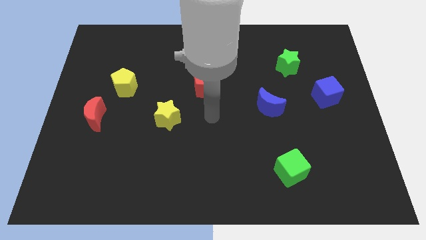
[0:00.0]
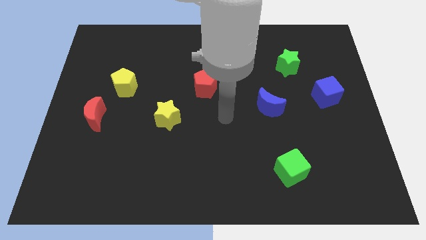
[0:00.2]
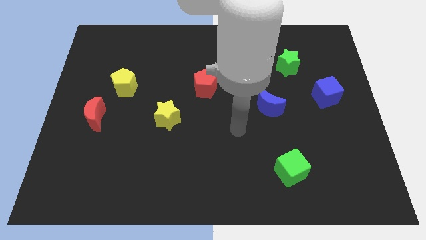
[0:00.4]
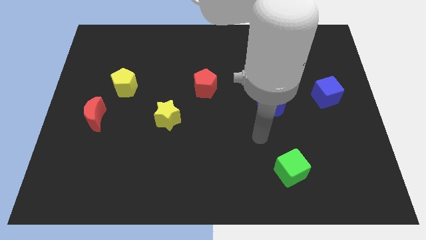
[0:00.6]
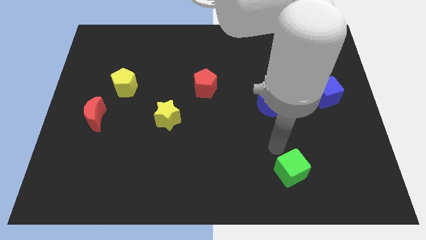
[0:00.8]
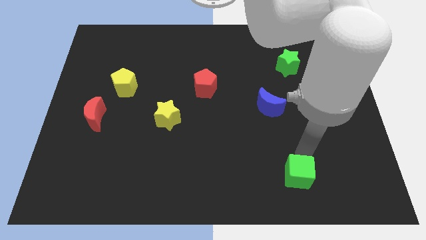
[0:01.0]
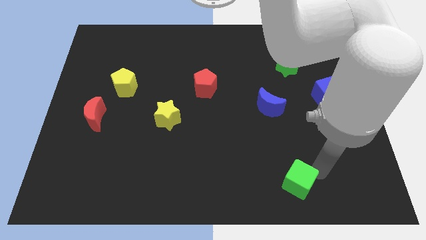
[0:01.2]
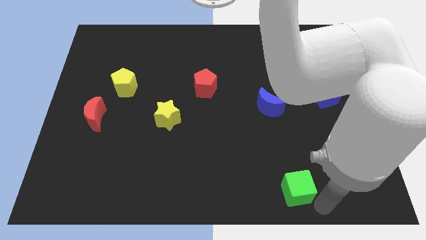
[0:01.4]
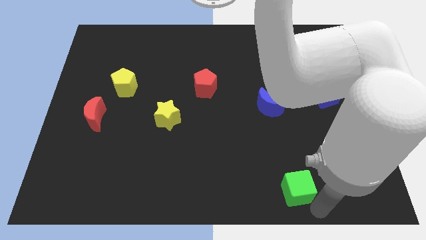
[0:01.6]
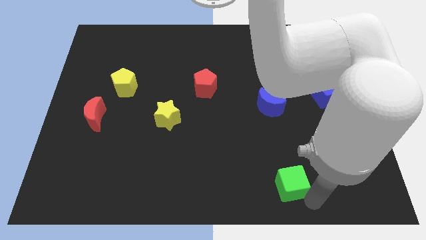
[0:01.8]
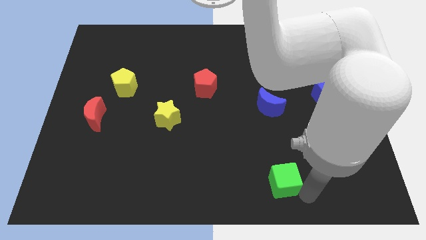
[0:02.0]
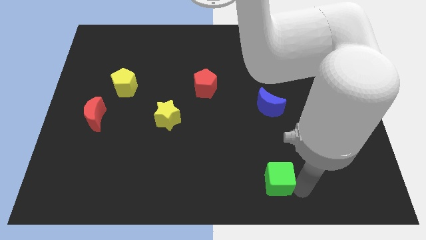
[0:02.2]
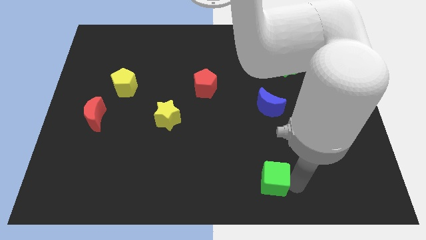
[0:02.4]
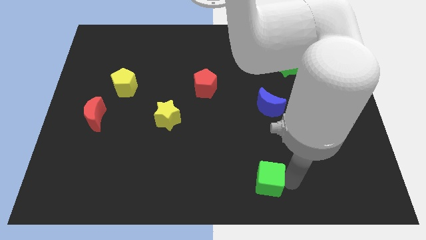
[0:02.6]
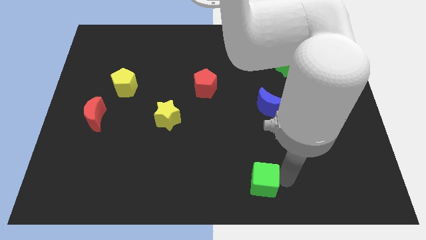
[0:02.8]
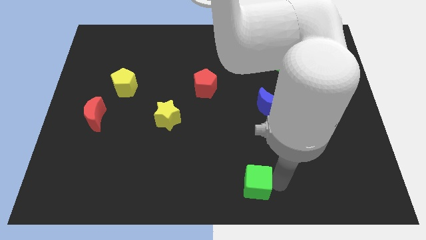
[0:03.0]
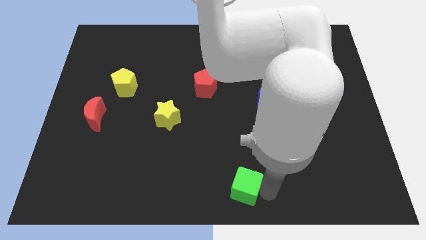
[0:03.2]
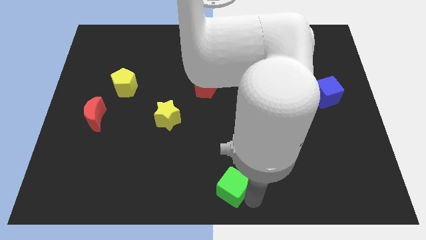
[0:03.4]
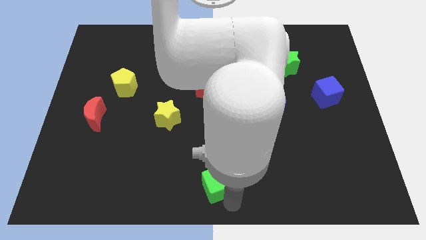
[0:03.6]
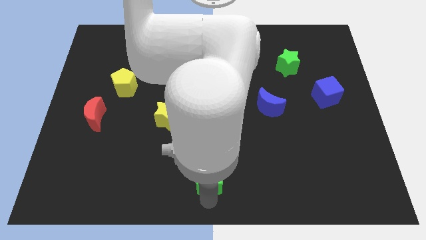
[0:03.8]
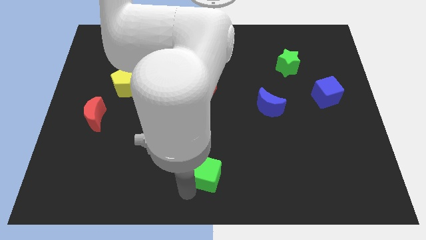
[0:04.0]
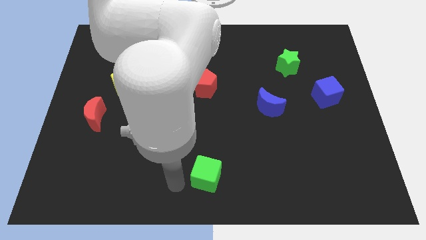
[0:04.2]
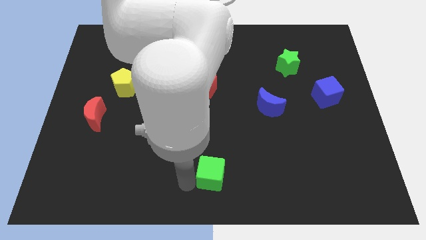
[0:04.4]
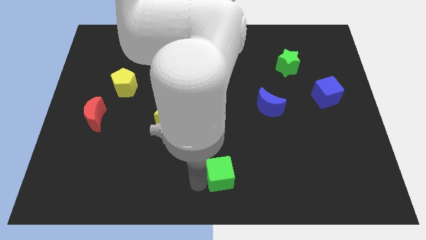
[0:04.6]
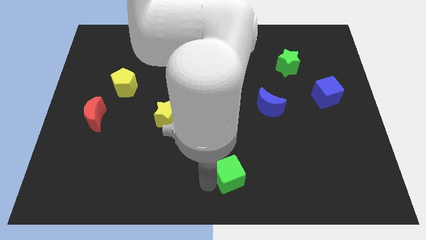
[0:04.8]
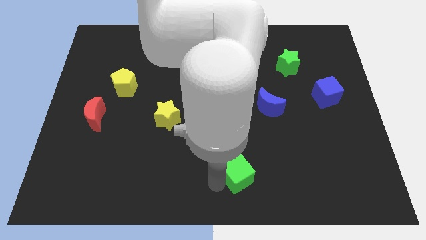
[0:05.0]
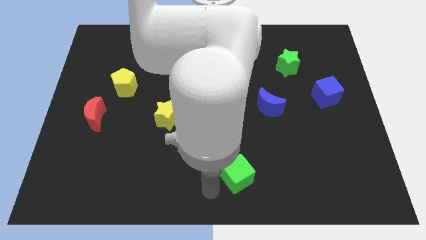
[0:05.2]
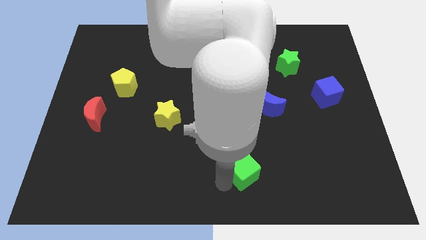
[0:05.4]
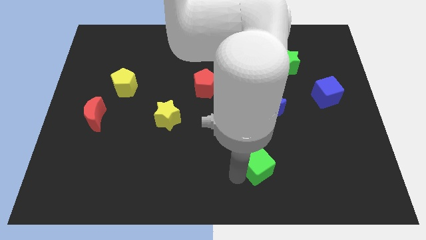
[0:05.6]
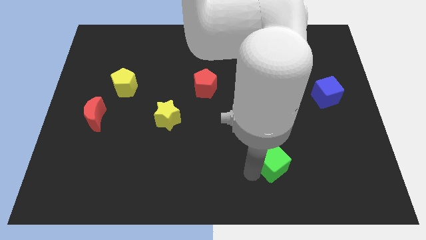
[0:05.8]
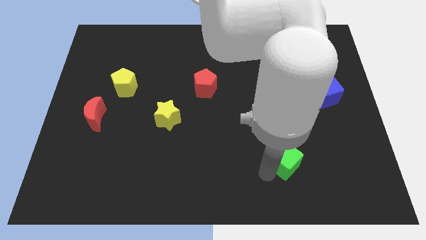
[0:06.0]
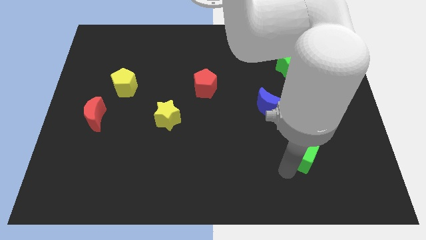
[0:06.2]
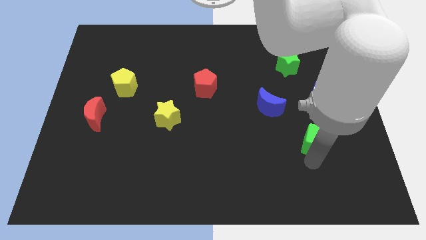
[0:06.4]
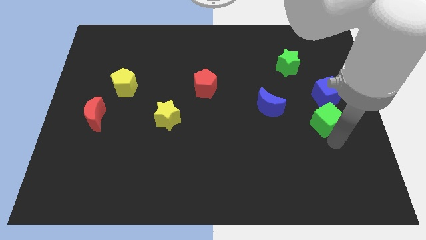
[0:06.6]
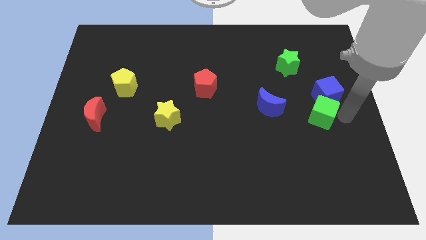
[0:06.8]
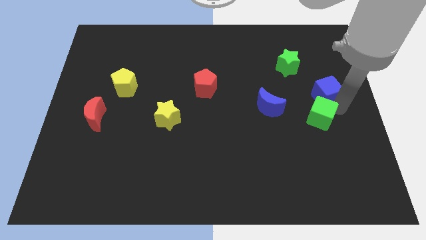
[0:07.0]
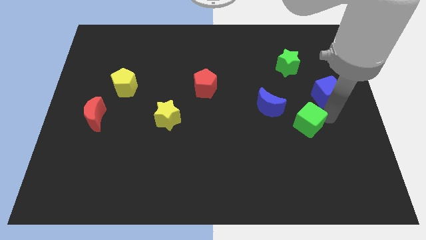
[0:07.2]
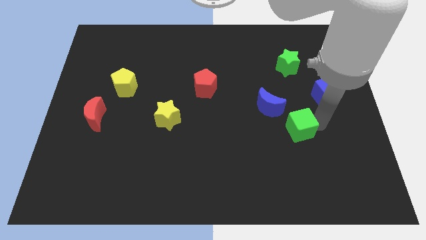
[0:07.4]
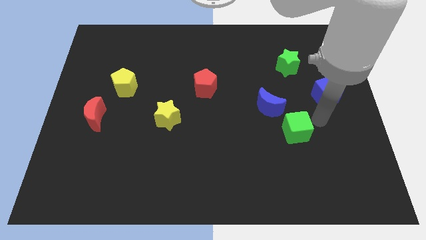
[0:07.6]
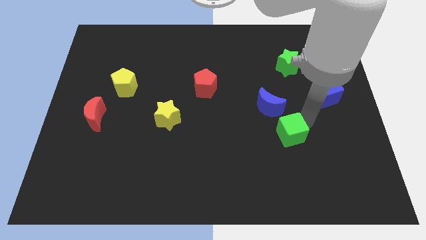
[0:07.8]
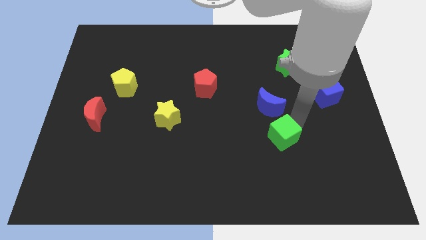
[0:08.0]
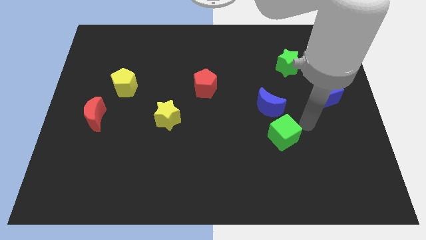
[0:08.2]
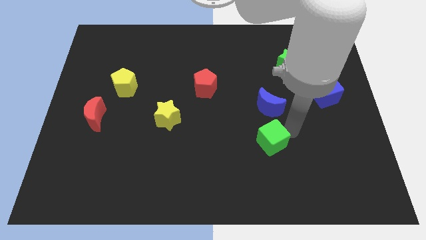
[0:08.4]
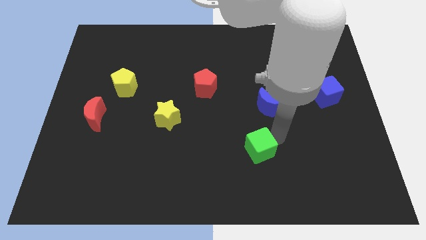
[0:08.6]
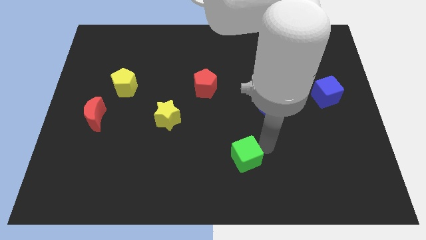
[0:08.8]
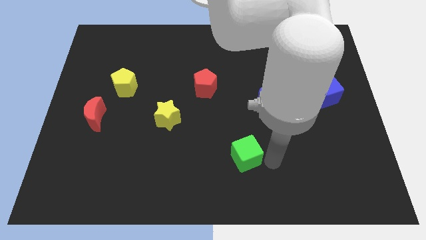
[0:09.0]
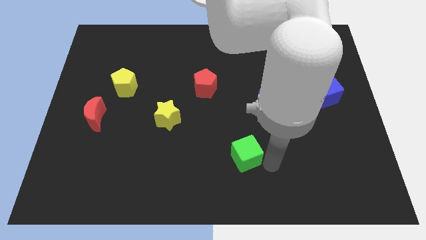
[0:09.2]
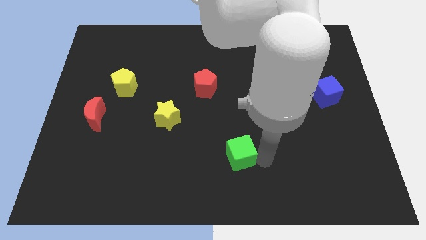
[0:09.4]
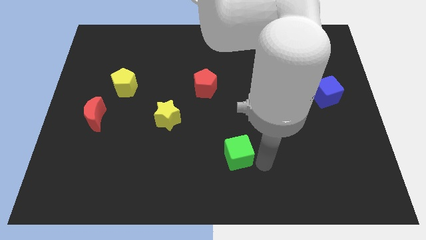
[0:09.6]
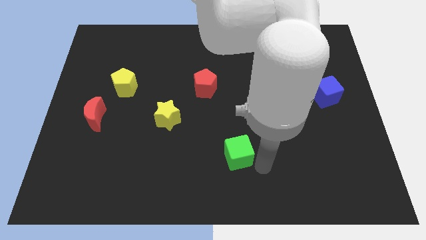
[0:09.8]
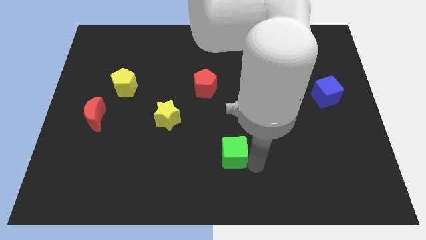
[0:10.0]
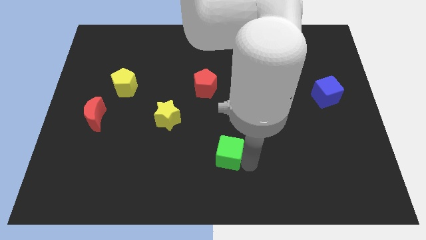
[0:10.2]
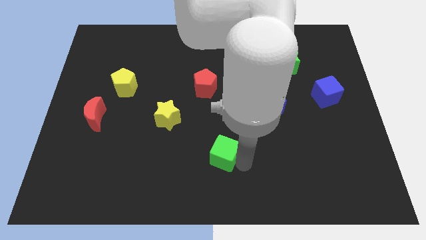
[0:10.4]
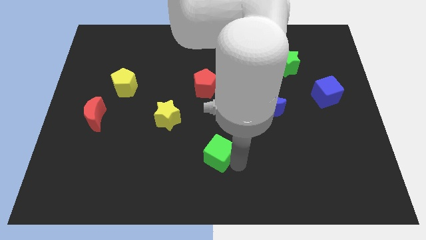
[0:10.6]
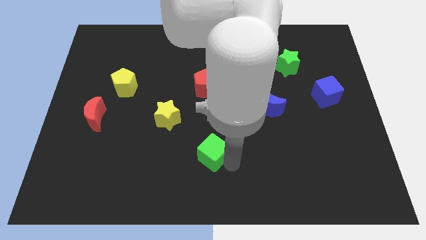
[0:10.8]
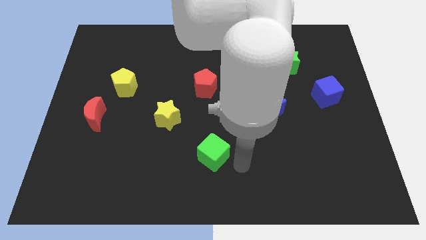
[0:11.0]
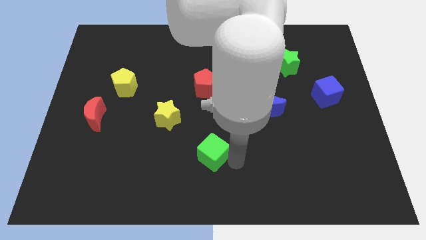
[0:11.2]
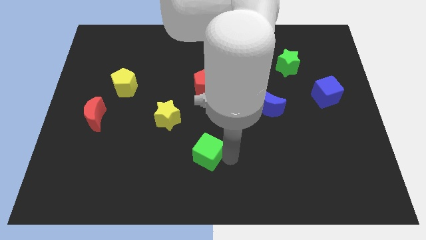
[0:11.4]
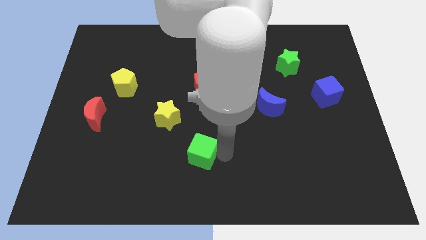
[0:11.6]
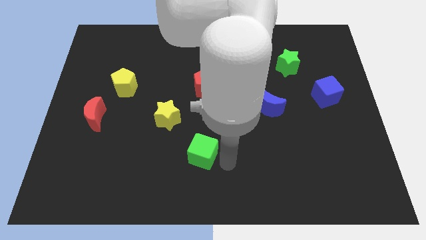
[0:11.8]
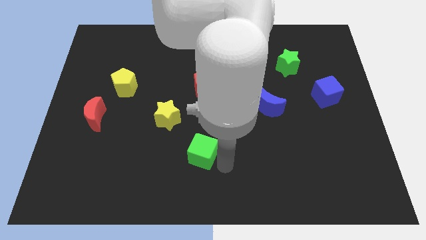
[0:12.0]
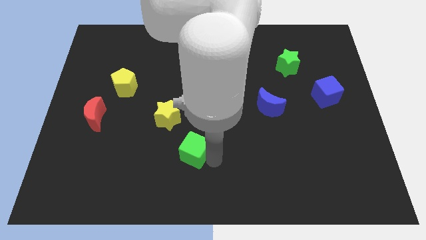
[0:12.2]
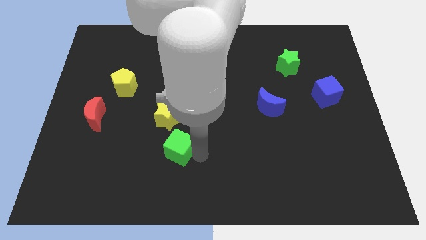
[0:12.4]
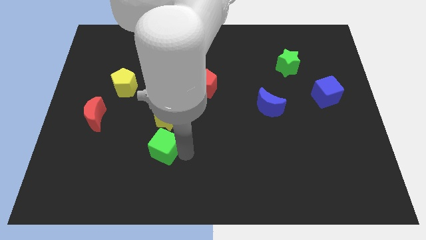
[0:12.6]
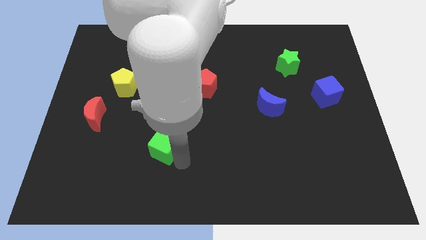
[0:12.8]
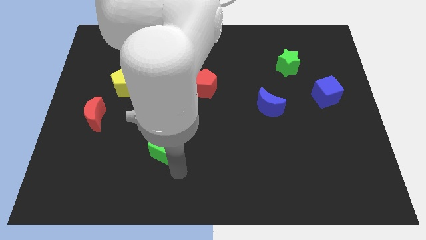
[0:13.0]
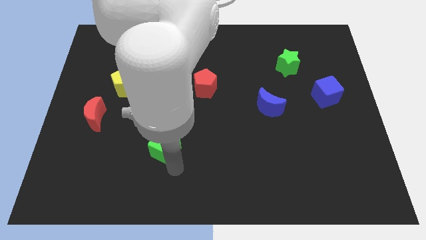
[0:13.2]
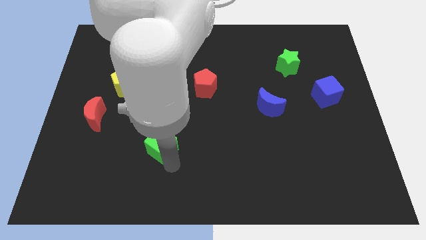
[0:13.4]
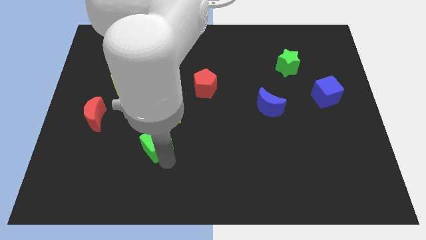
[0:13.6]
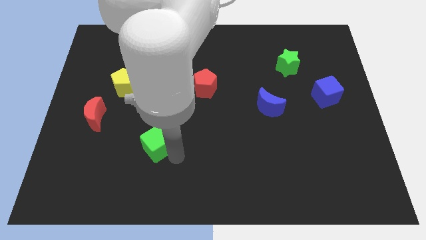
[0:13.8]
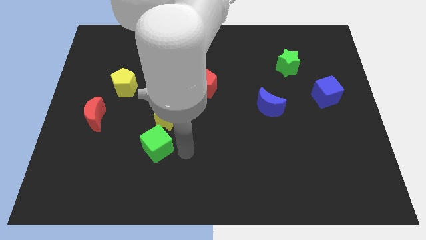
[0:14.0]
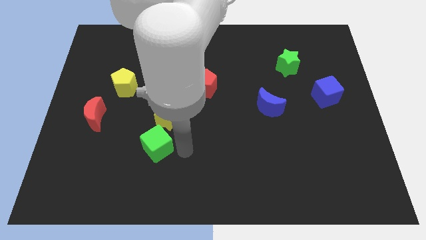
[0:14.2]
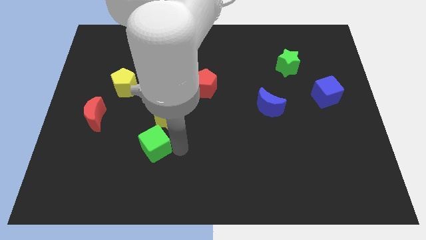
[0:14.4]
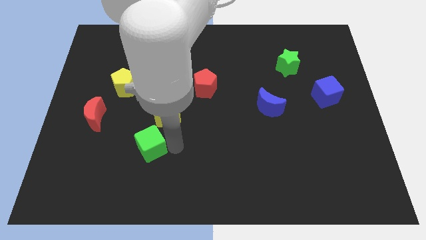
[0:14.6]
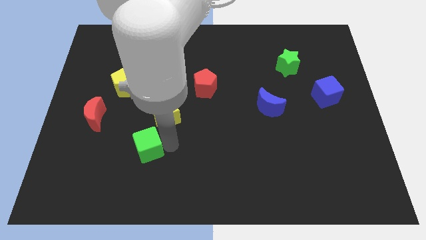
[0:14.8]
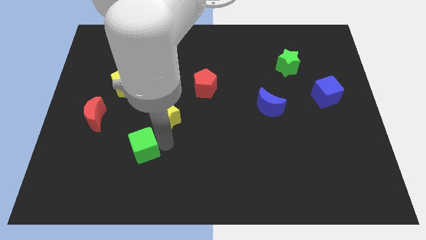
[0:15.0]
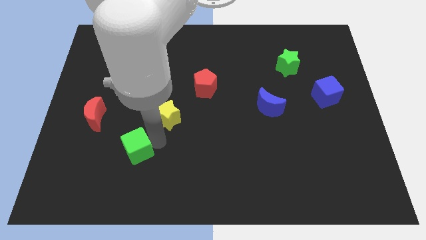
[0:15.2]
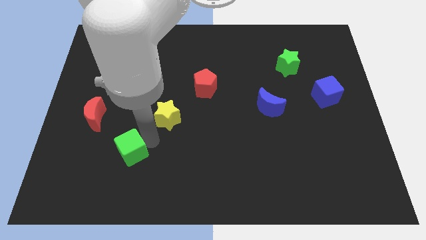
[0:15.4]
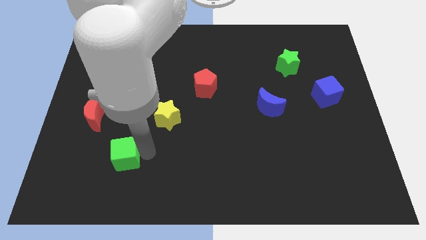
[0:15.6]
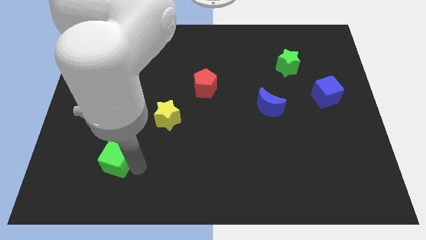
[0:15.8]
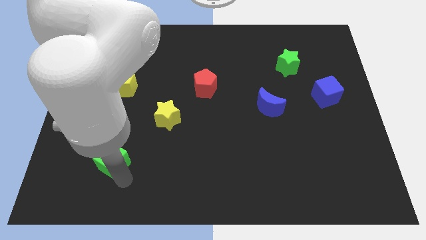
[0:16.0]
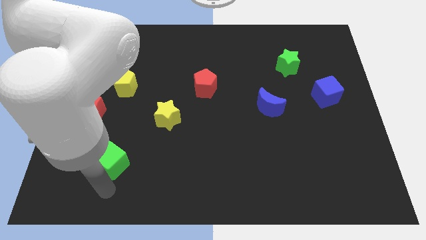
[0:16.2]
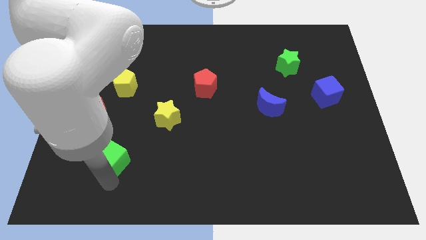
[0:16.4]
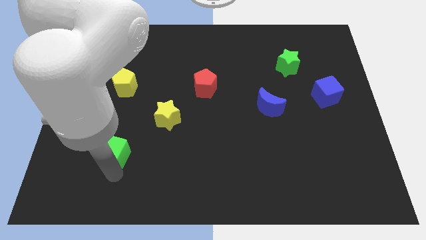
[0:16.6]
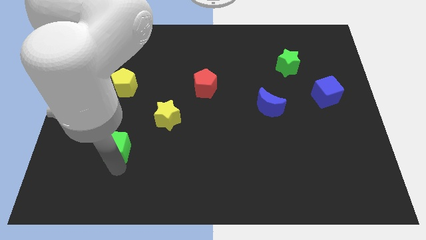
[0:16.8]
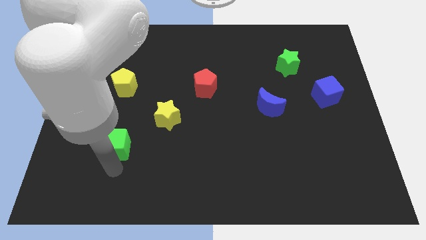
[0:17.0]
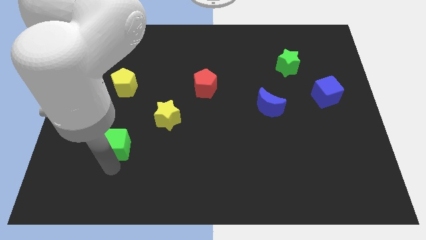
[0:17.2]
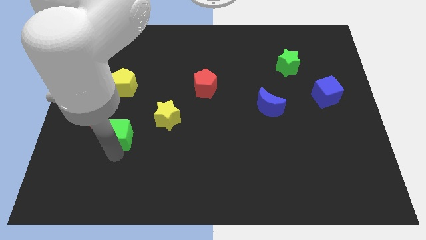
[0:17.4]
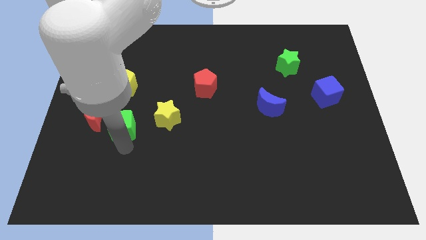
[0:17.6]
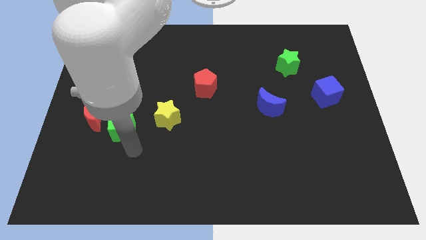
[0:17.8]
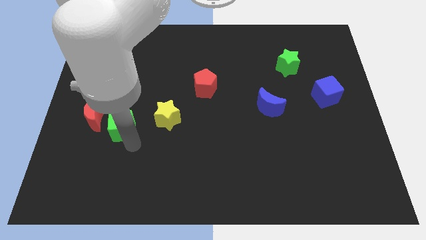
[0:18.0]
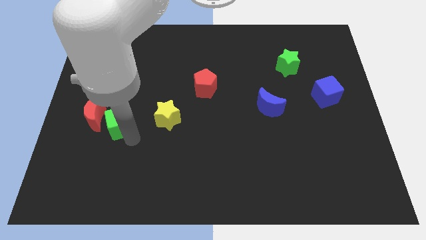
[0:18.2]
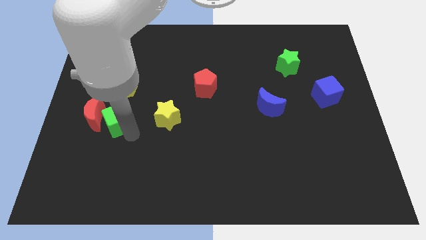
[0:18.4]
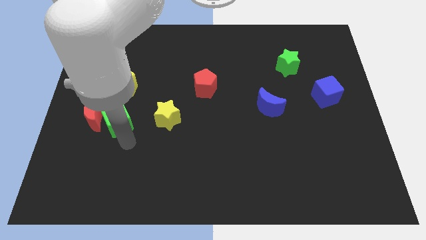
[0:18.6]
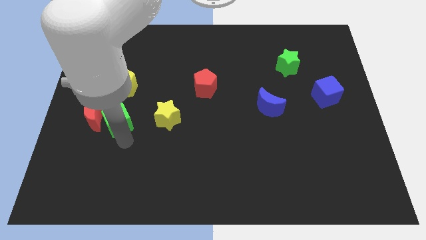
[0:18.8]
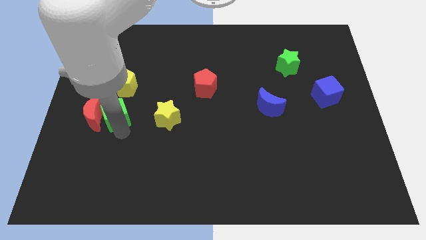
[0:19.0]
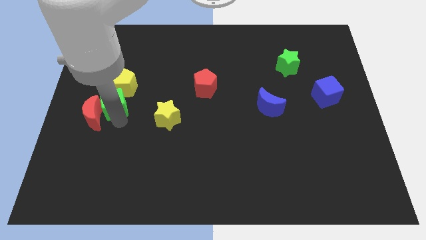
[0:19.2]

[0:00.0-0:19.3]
put the green cube above the red moon
